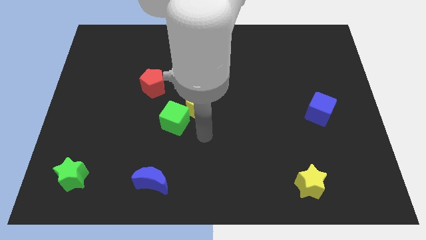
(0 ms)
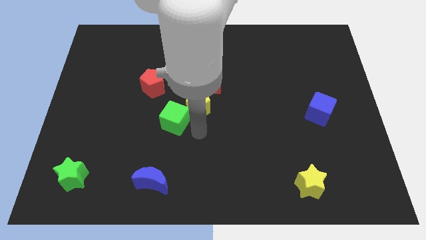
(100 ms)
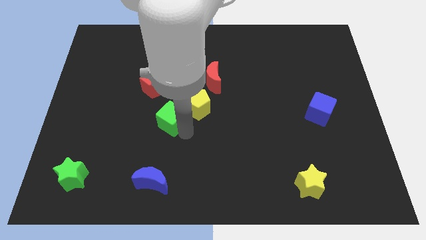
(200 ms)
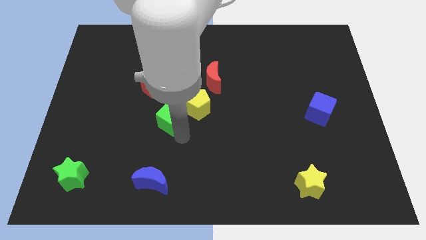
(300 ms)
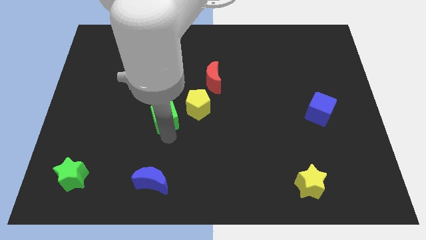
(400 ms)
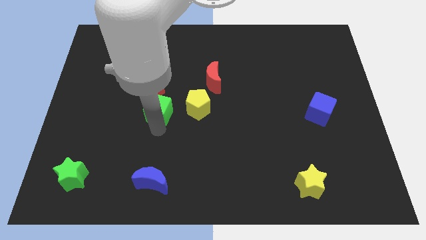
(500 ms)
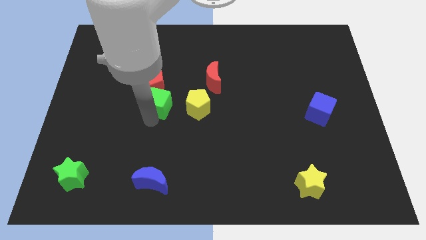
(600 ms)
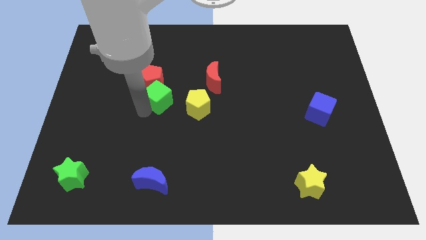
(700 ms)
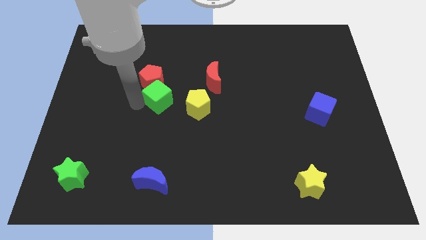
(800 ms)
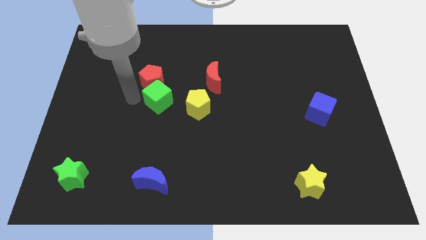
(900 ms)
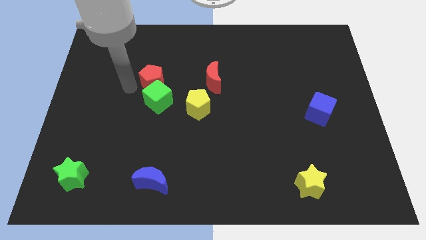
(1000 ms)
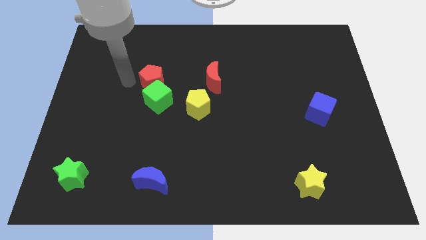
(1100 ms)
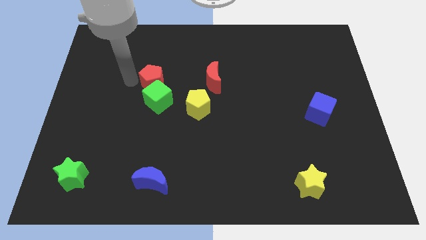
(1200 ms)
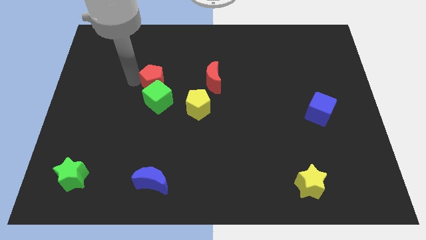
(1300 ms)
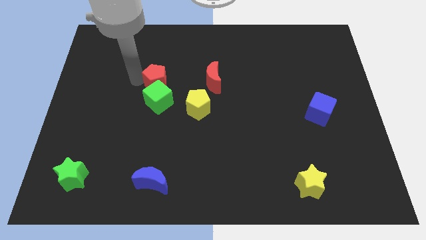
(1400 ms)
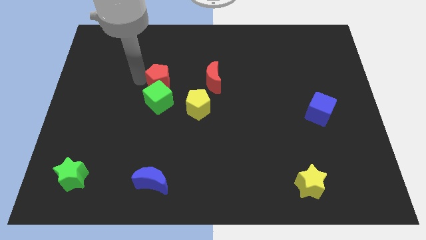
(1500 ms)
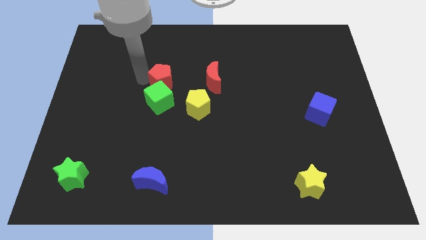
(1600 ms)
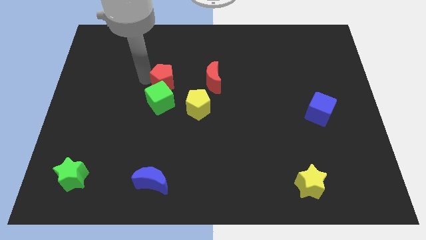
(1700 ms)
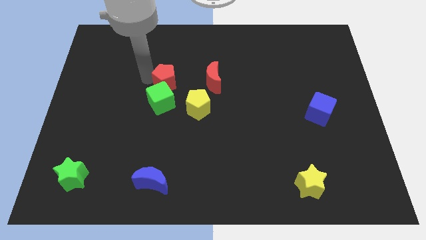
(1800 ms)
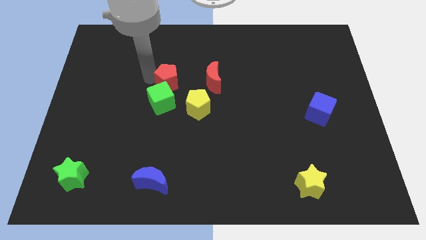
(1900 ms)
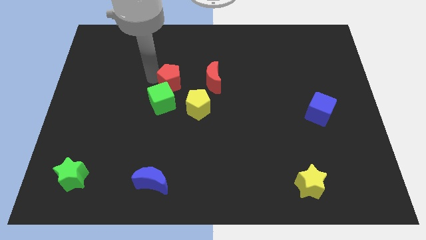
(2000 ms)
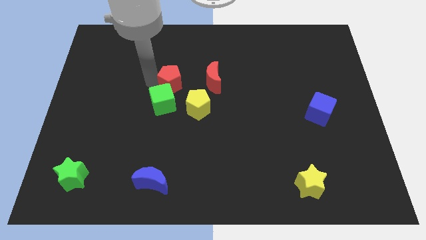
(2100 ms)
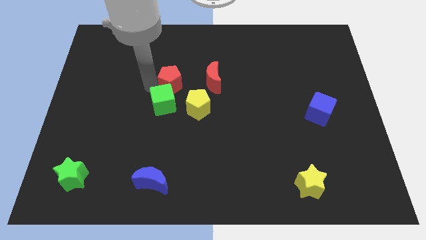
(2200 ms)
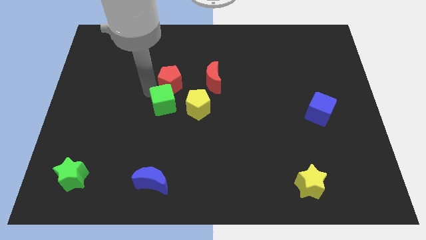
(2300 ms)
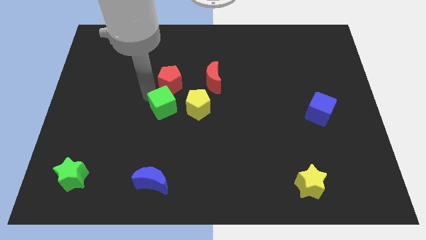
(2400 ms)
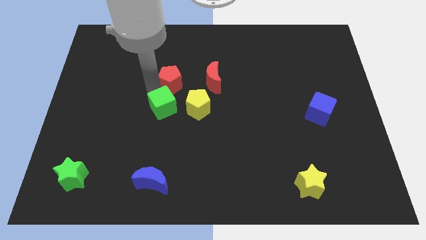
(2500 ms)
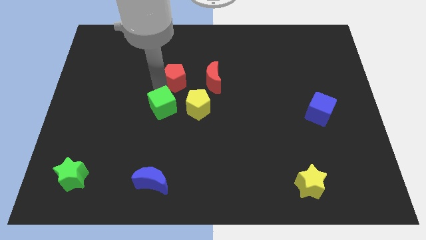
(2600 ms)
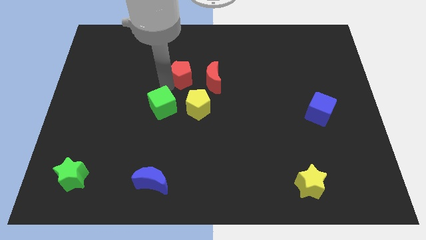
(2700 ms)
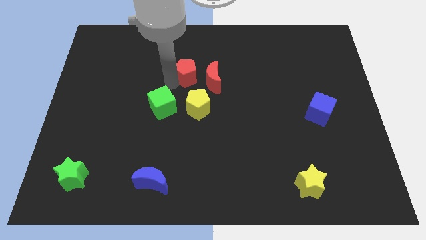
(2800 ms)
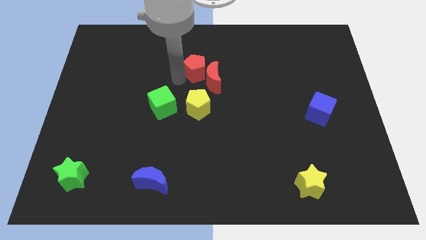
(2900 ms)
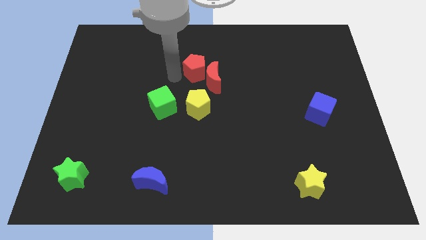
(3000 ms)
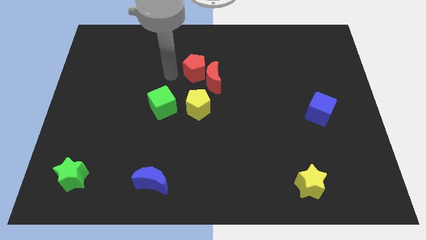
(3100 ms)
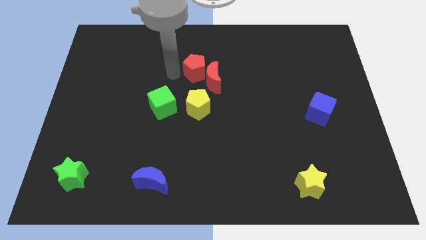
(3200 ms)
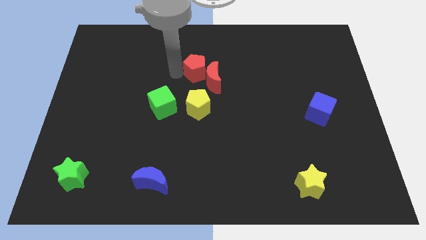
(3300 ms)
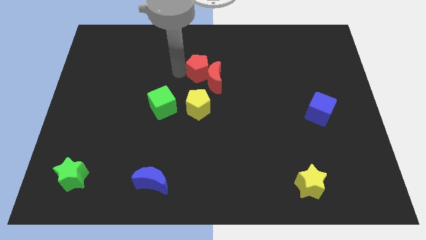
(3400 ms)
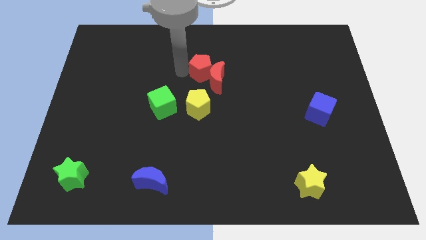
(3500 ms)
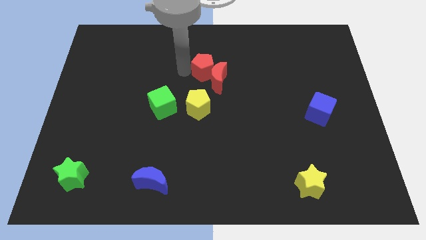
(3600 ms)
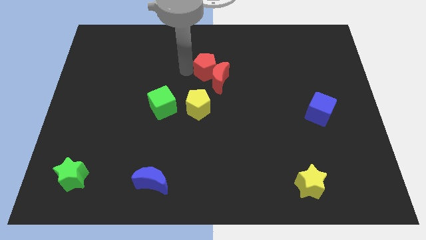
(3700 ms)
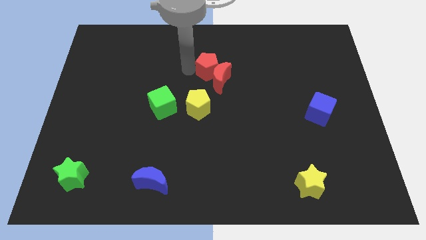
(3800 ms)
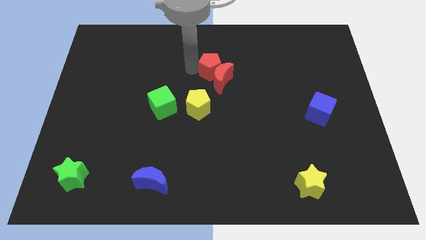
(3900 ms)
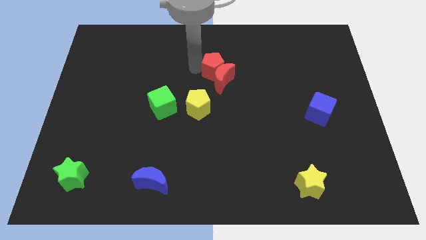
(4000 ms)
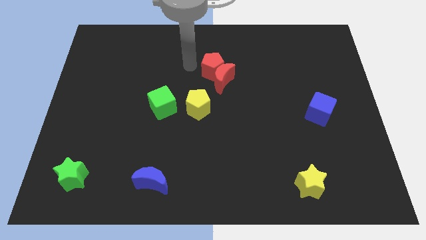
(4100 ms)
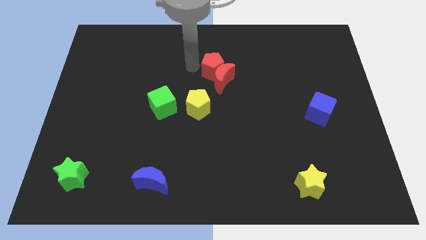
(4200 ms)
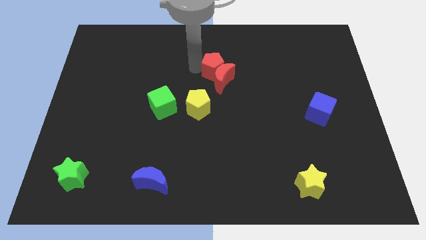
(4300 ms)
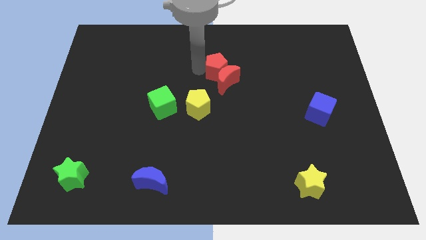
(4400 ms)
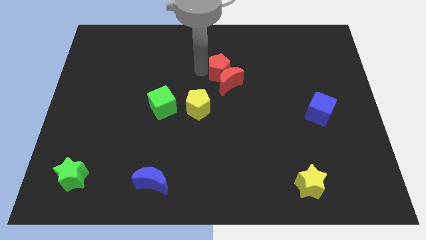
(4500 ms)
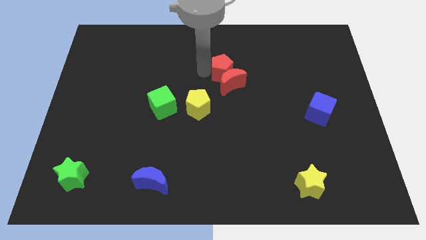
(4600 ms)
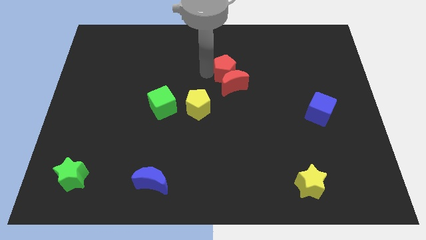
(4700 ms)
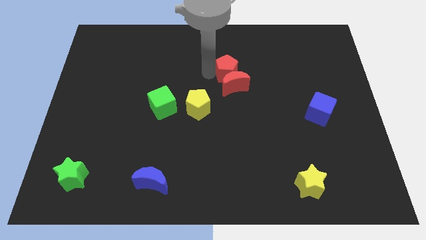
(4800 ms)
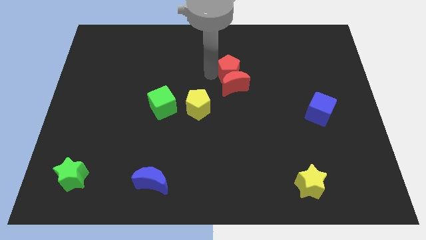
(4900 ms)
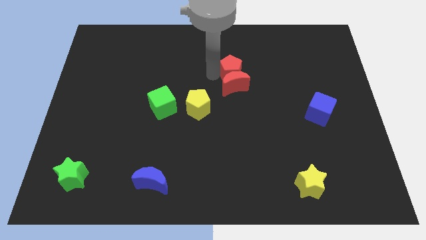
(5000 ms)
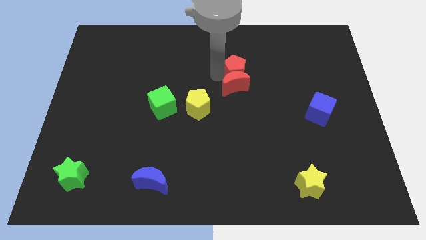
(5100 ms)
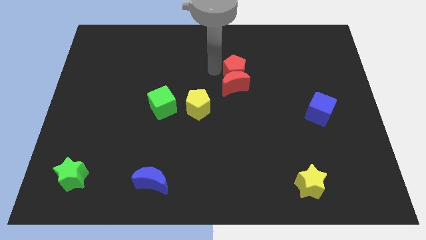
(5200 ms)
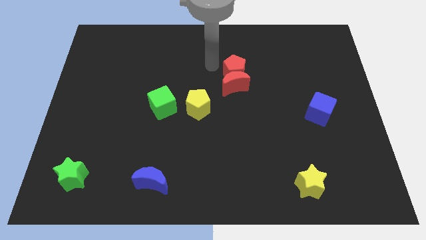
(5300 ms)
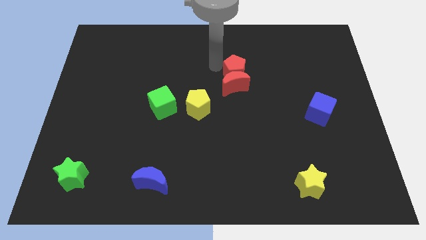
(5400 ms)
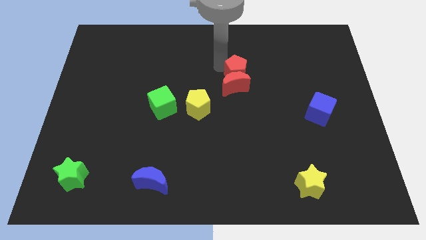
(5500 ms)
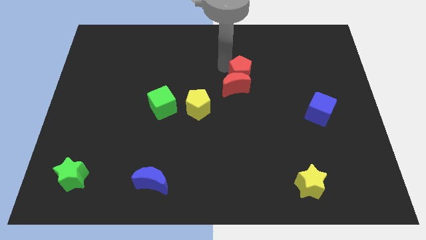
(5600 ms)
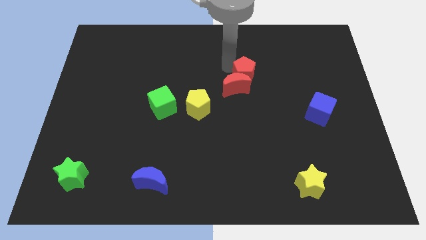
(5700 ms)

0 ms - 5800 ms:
push the red pentagon just right of the red moon
